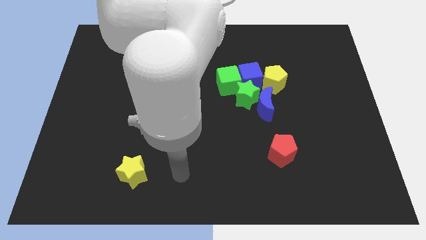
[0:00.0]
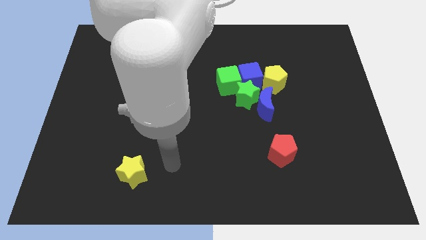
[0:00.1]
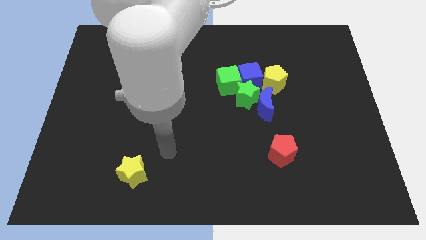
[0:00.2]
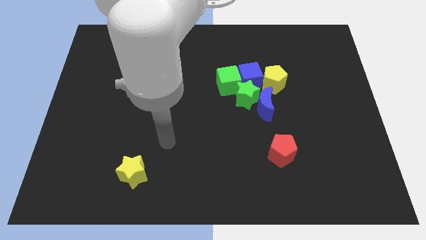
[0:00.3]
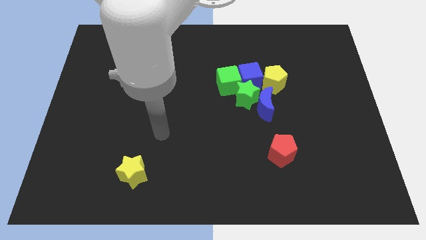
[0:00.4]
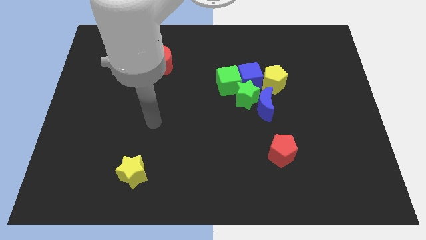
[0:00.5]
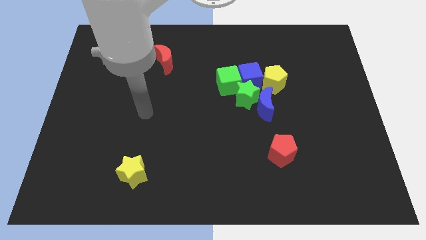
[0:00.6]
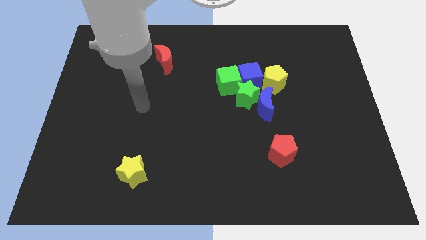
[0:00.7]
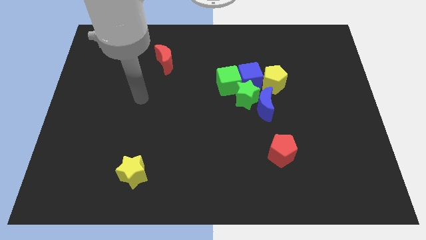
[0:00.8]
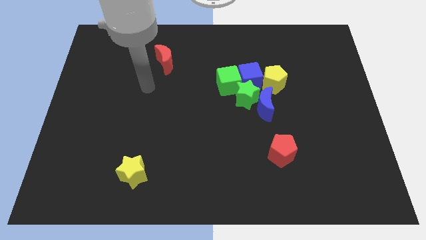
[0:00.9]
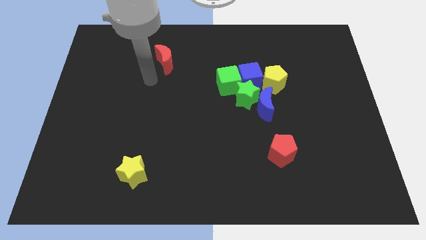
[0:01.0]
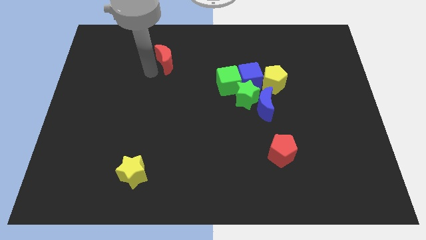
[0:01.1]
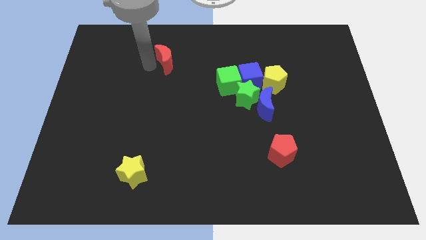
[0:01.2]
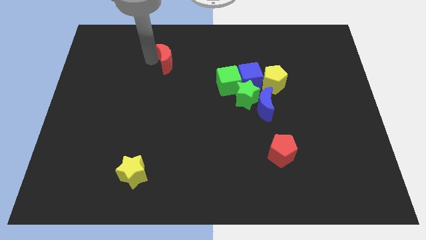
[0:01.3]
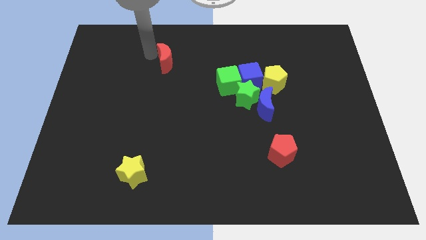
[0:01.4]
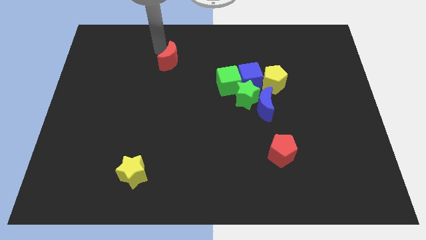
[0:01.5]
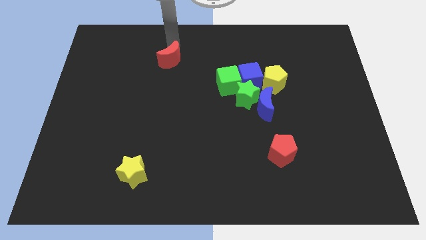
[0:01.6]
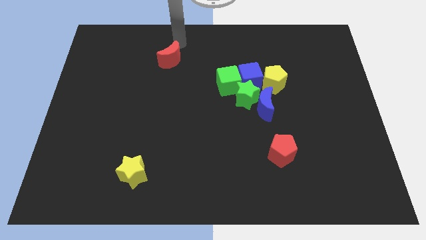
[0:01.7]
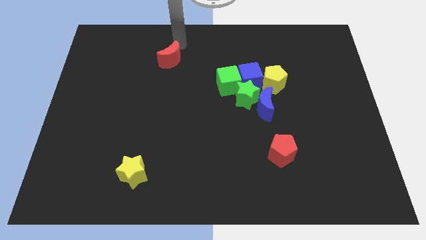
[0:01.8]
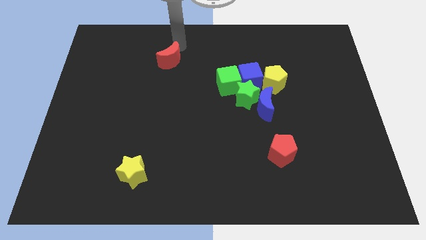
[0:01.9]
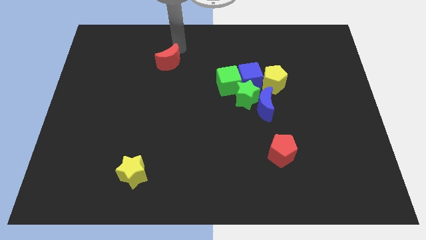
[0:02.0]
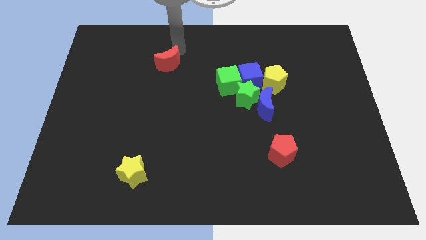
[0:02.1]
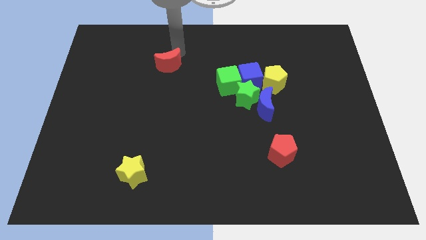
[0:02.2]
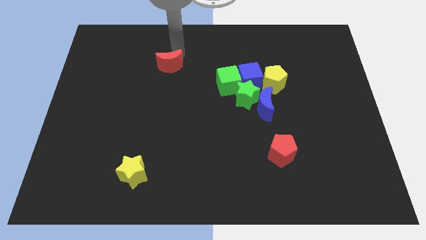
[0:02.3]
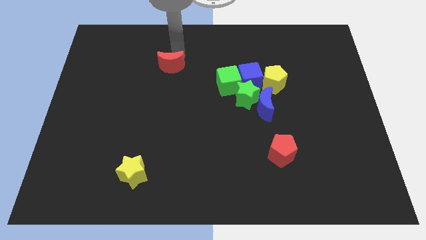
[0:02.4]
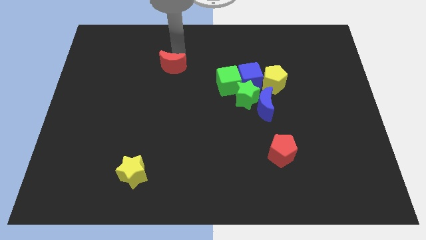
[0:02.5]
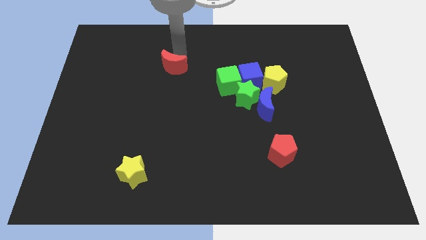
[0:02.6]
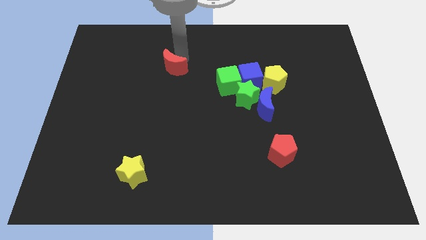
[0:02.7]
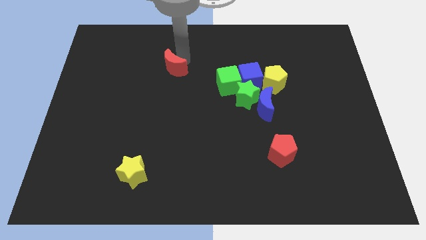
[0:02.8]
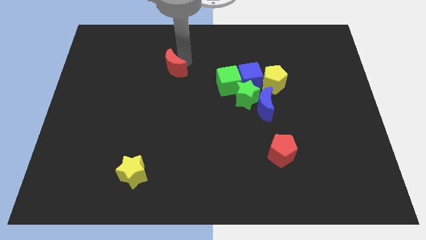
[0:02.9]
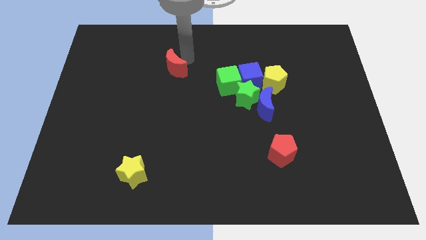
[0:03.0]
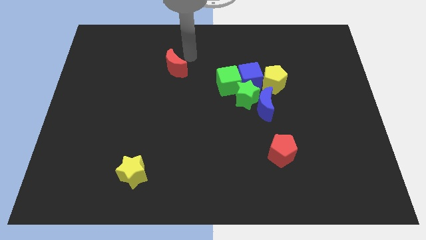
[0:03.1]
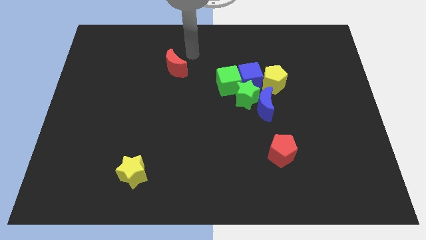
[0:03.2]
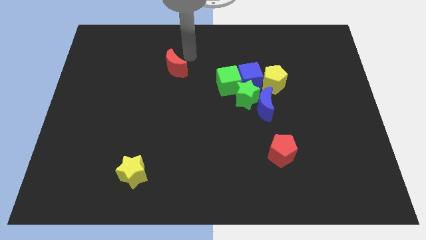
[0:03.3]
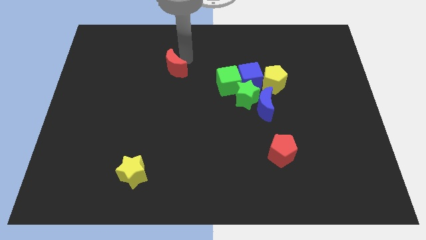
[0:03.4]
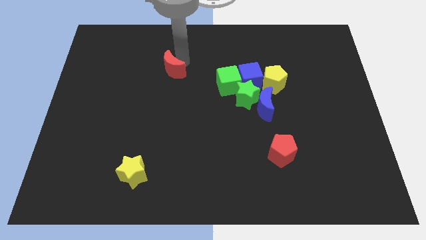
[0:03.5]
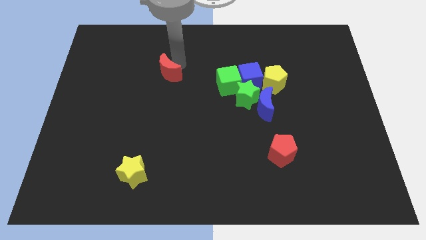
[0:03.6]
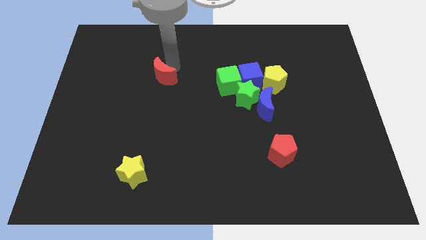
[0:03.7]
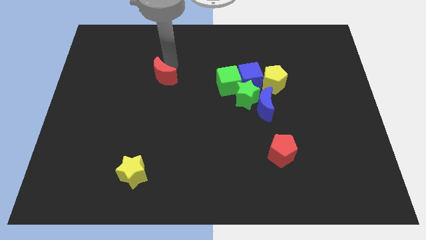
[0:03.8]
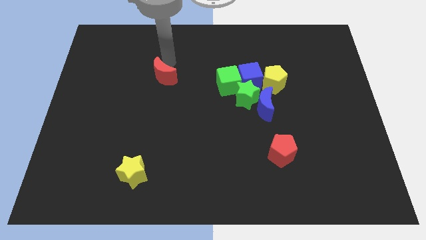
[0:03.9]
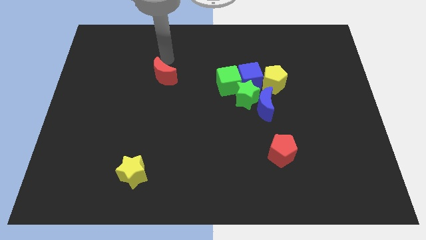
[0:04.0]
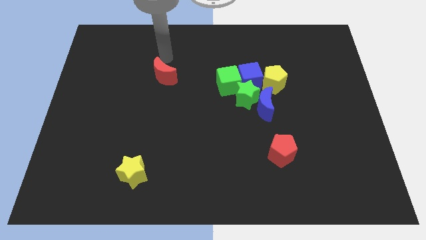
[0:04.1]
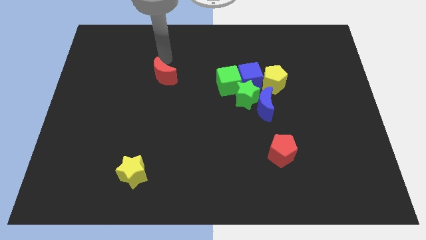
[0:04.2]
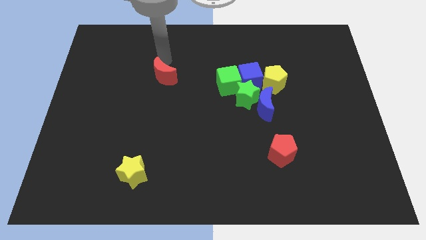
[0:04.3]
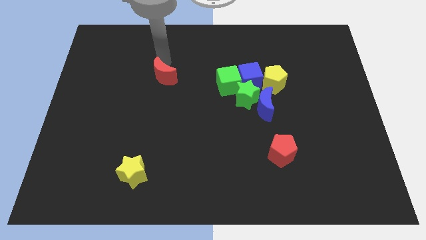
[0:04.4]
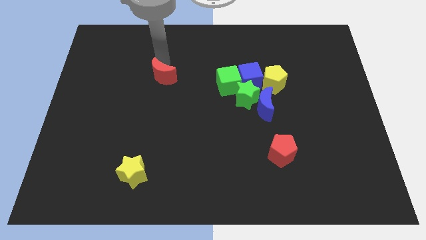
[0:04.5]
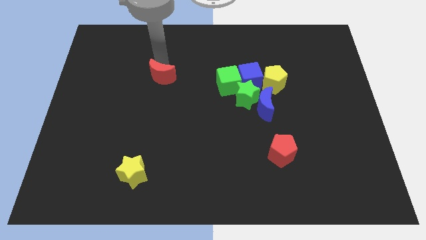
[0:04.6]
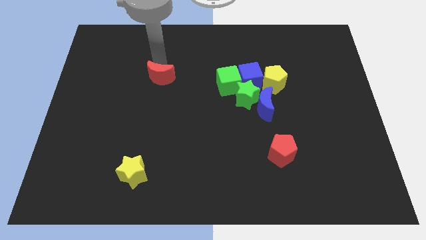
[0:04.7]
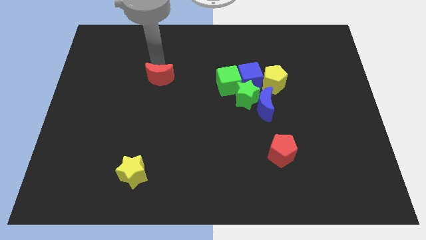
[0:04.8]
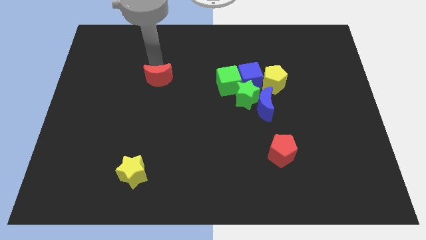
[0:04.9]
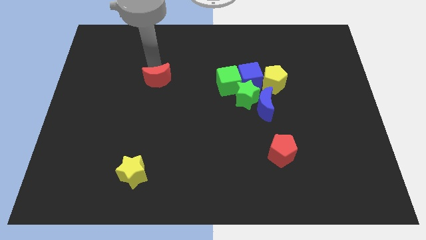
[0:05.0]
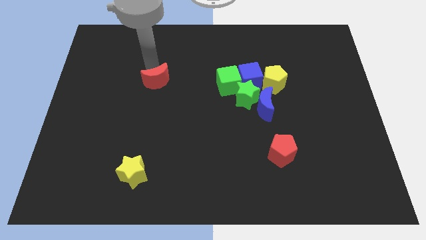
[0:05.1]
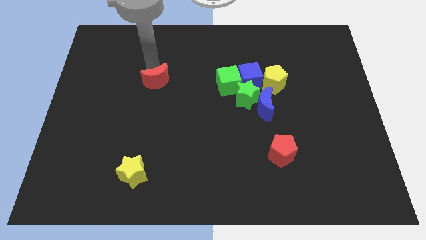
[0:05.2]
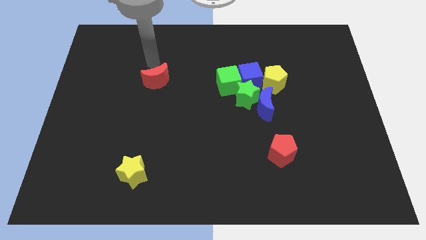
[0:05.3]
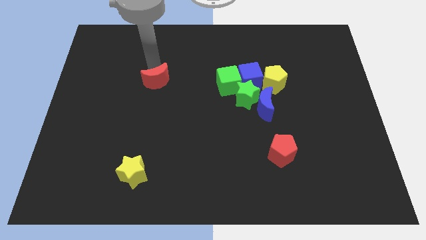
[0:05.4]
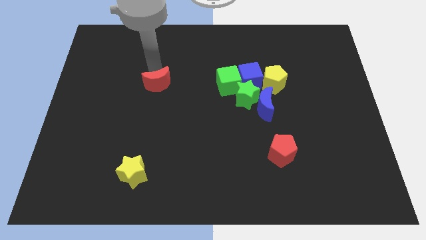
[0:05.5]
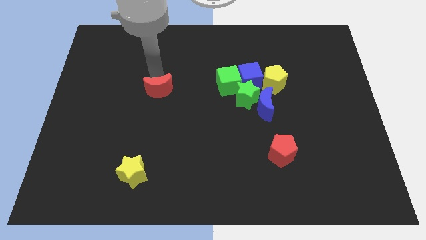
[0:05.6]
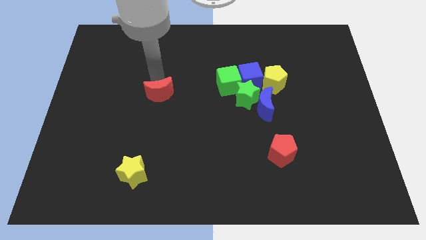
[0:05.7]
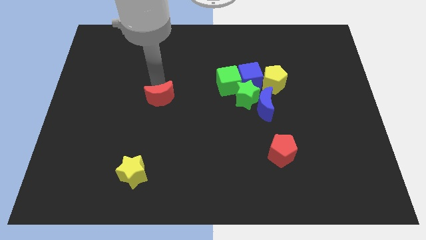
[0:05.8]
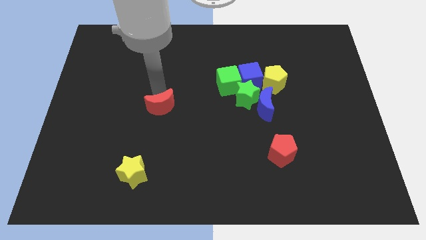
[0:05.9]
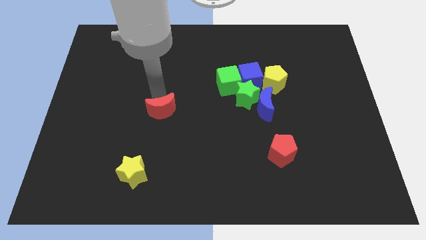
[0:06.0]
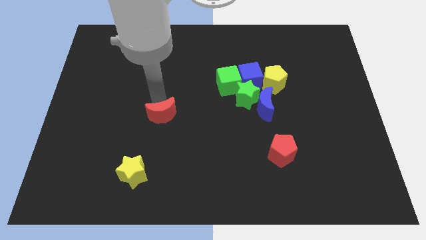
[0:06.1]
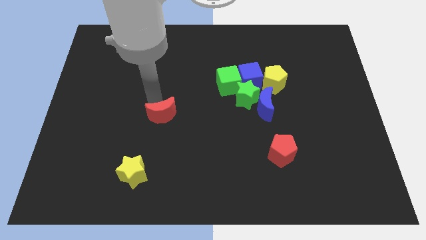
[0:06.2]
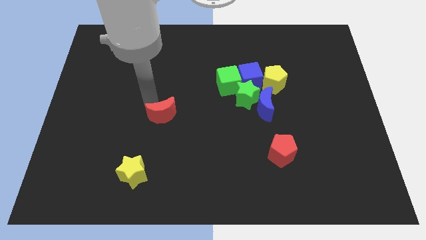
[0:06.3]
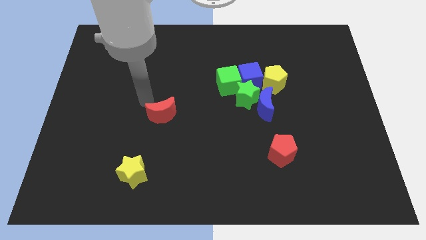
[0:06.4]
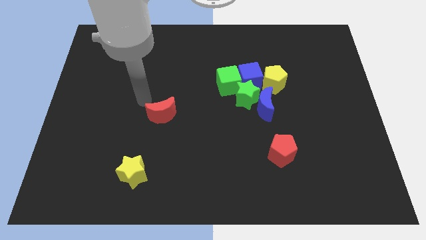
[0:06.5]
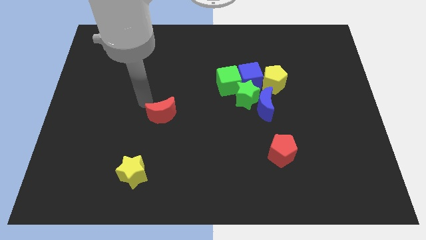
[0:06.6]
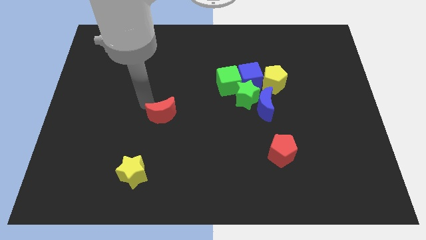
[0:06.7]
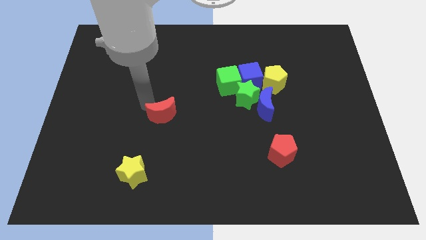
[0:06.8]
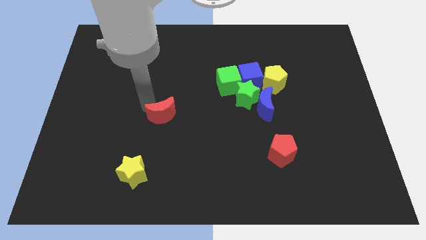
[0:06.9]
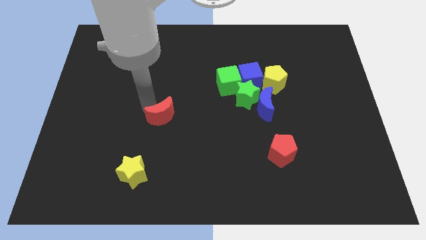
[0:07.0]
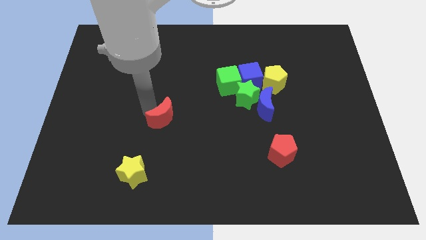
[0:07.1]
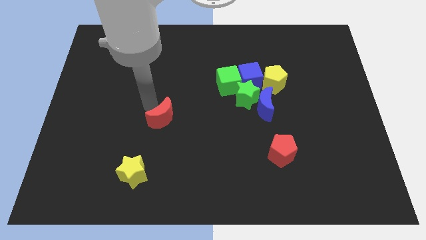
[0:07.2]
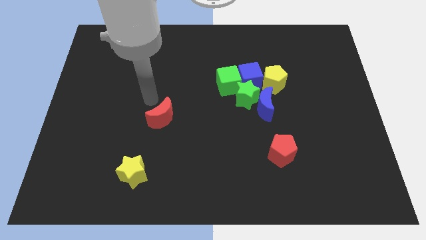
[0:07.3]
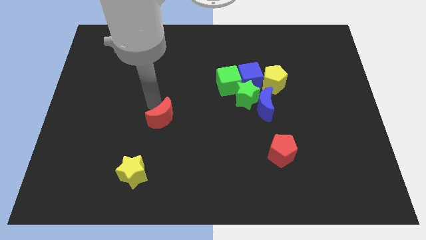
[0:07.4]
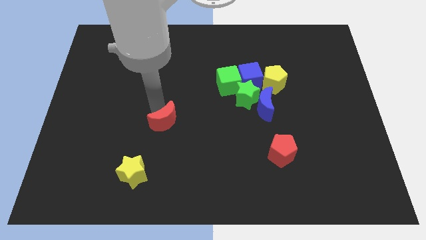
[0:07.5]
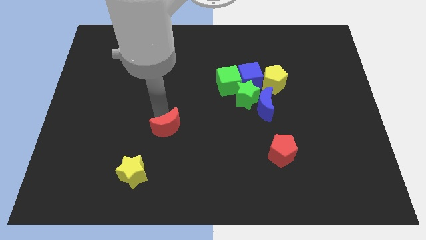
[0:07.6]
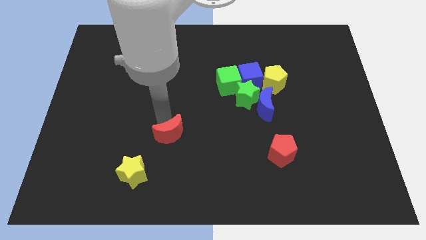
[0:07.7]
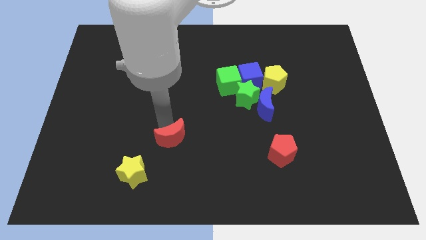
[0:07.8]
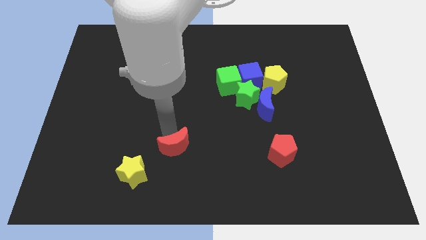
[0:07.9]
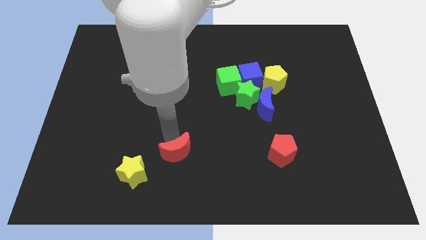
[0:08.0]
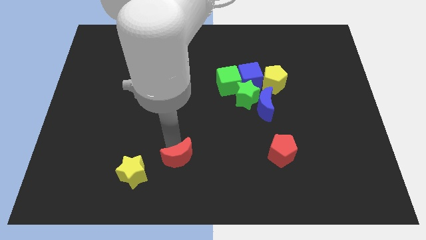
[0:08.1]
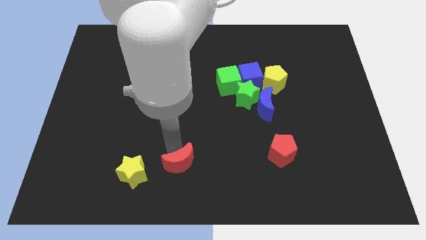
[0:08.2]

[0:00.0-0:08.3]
put the red moon to the bottom side
